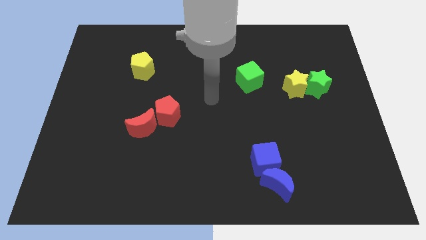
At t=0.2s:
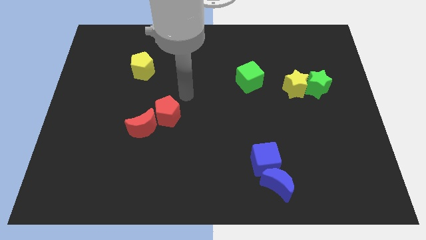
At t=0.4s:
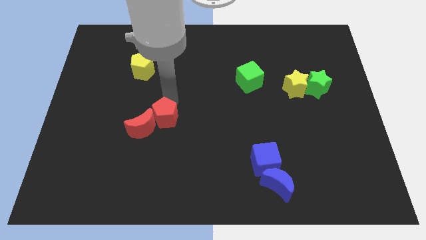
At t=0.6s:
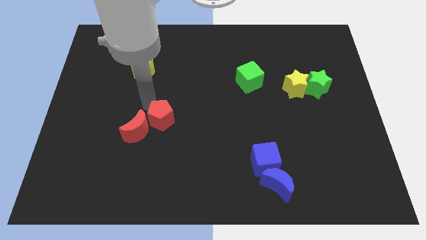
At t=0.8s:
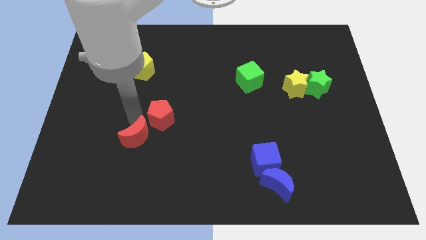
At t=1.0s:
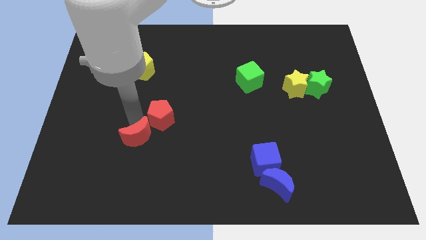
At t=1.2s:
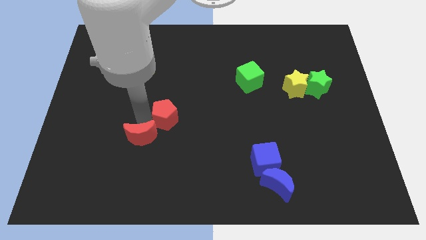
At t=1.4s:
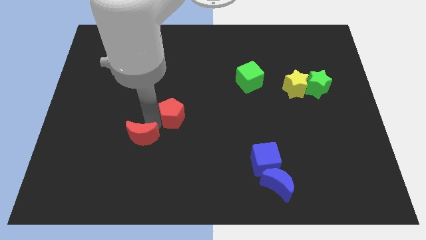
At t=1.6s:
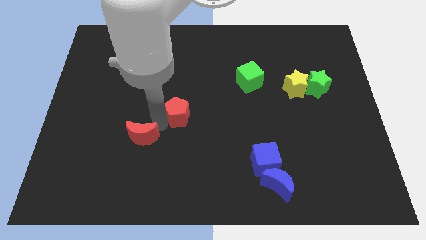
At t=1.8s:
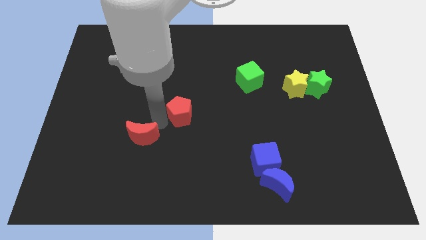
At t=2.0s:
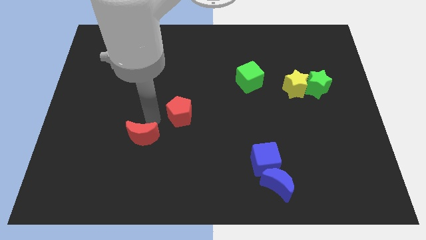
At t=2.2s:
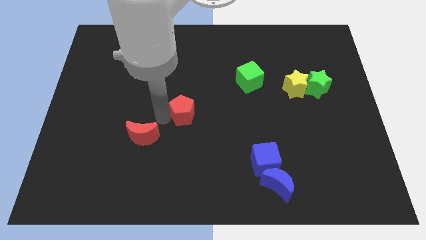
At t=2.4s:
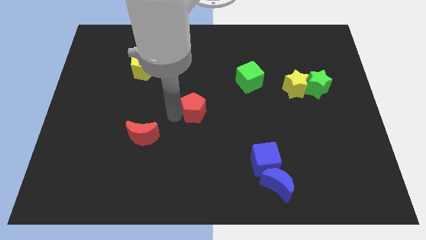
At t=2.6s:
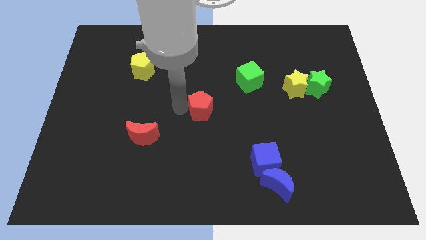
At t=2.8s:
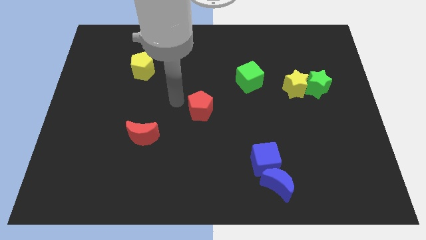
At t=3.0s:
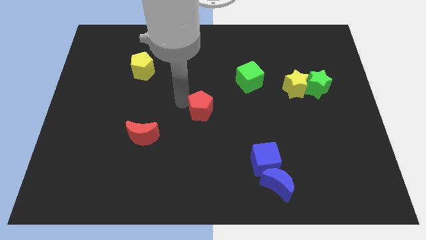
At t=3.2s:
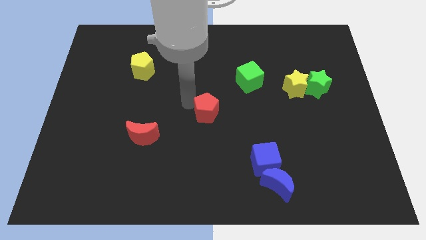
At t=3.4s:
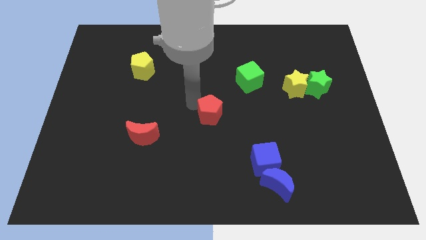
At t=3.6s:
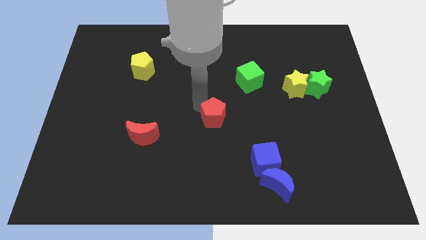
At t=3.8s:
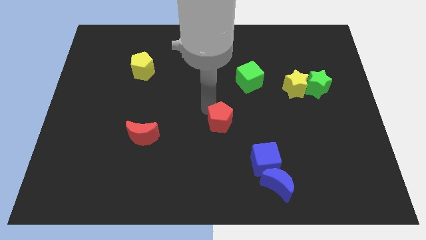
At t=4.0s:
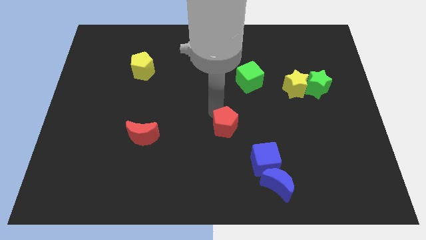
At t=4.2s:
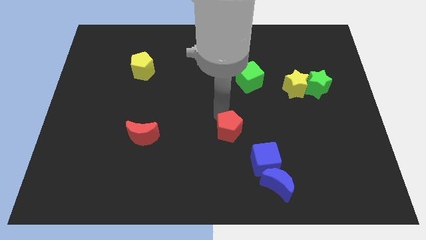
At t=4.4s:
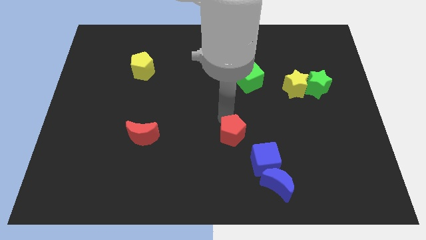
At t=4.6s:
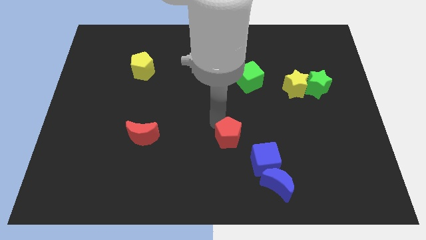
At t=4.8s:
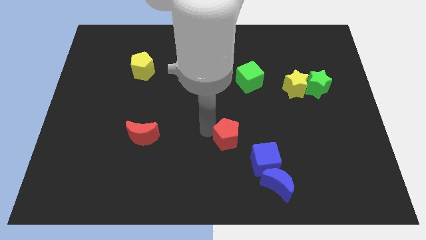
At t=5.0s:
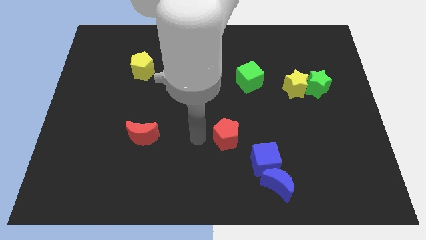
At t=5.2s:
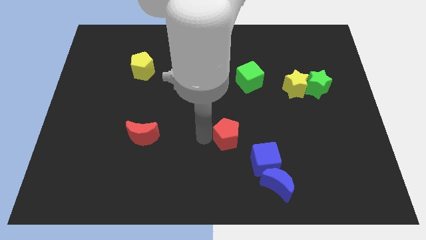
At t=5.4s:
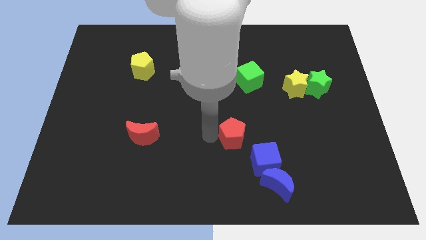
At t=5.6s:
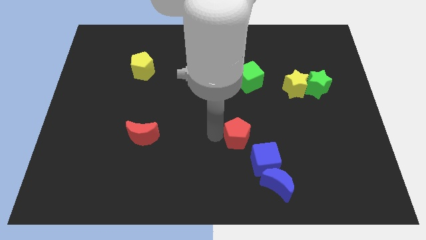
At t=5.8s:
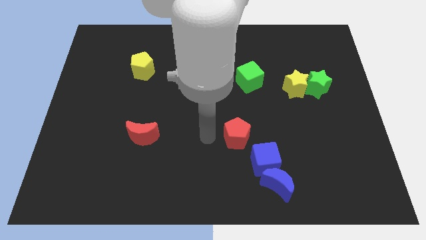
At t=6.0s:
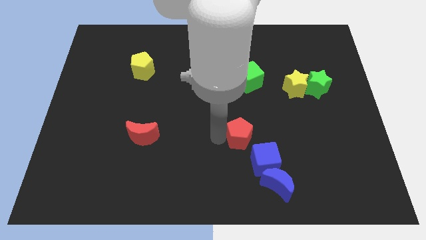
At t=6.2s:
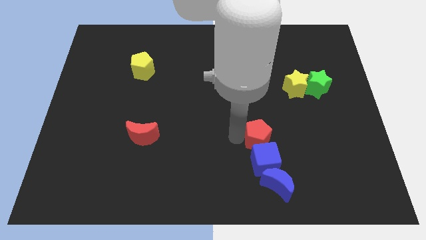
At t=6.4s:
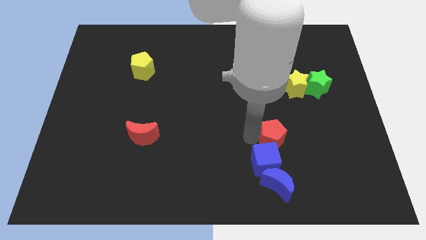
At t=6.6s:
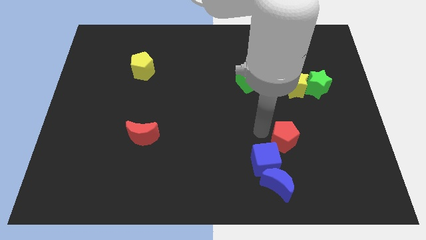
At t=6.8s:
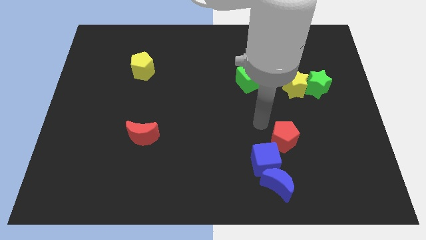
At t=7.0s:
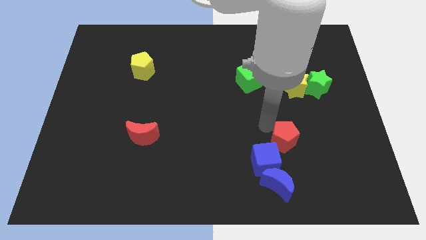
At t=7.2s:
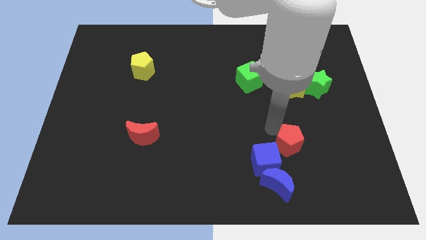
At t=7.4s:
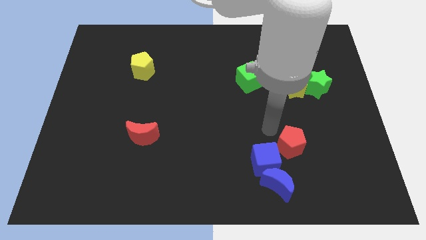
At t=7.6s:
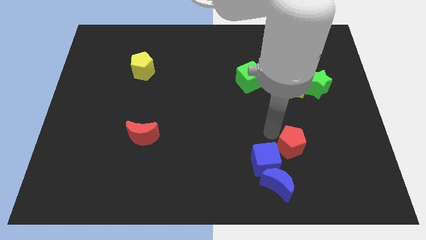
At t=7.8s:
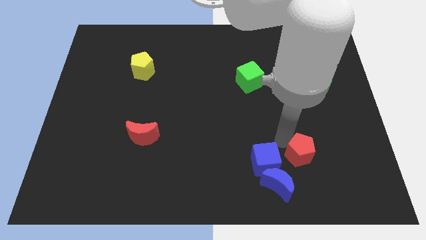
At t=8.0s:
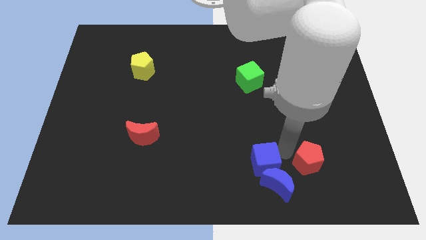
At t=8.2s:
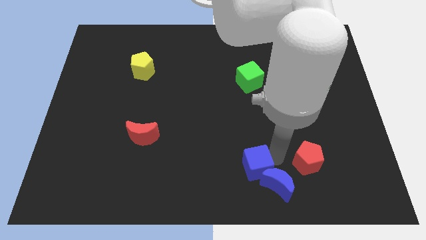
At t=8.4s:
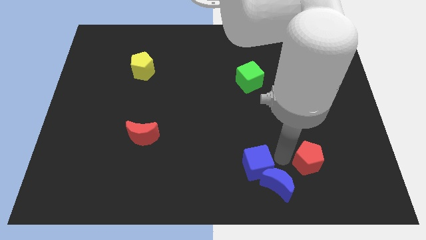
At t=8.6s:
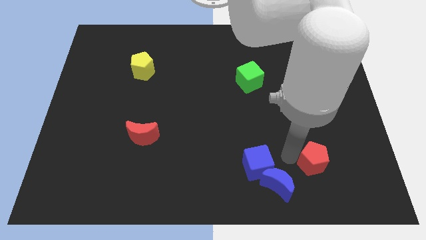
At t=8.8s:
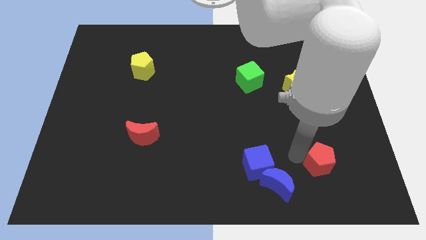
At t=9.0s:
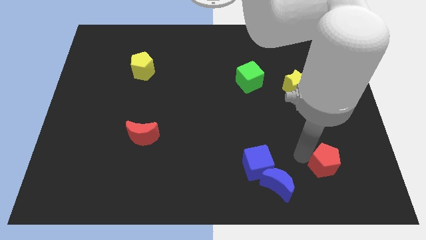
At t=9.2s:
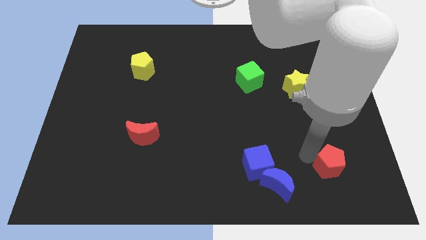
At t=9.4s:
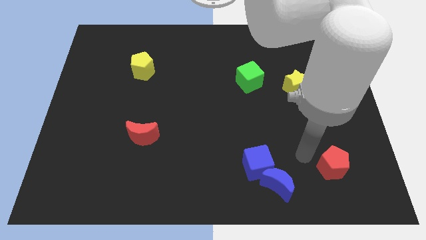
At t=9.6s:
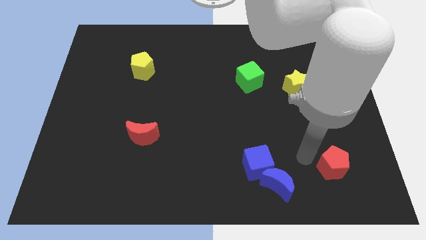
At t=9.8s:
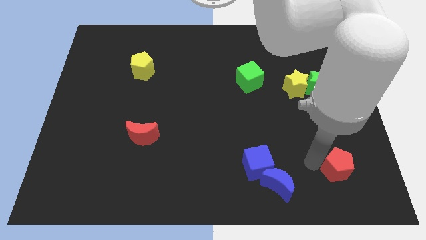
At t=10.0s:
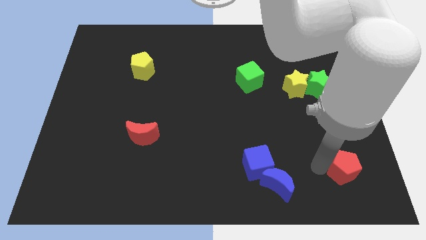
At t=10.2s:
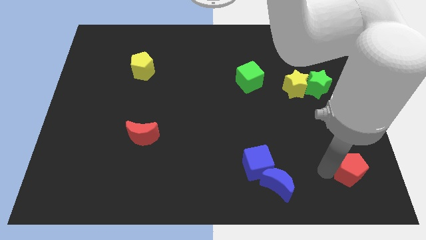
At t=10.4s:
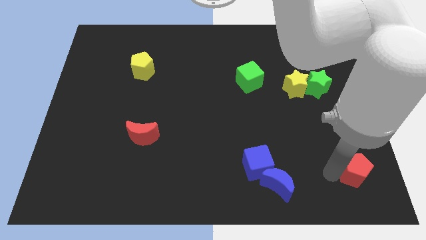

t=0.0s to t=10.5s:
push the red pentagon to the bottom right of the board

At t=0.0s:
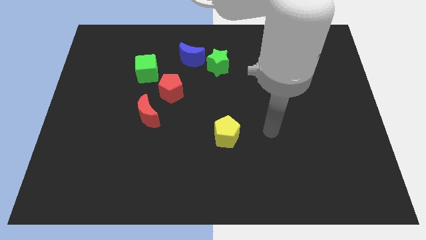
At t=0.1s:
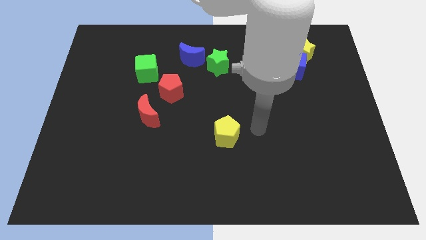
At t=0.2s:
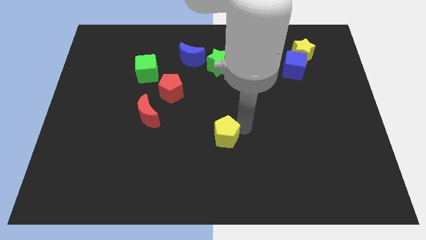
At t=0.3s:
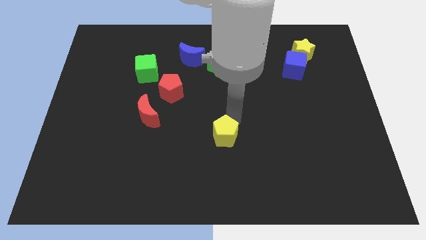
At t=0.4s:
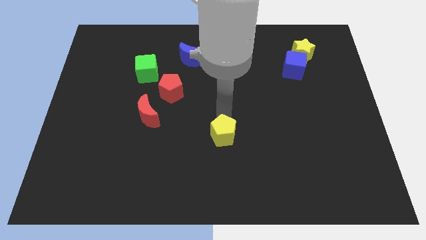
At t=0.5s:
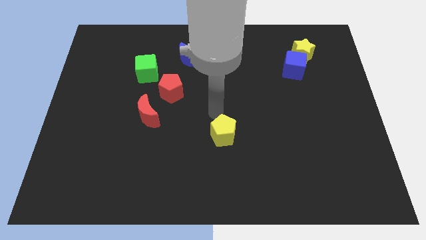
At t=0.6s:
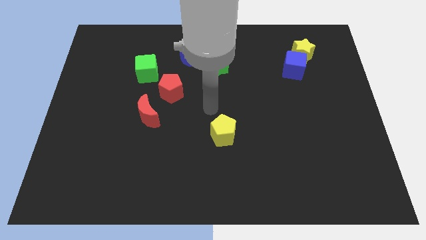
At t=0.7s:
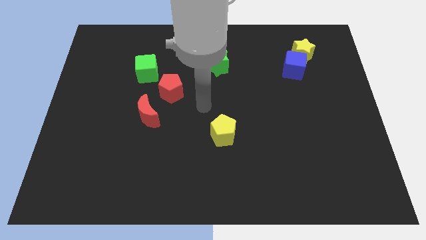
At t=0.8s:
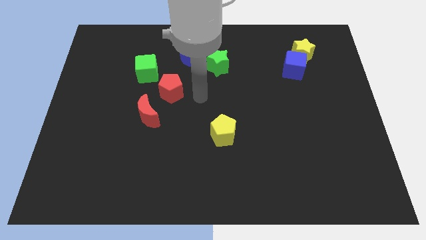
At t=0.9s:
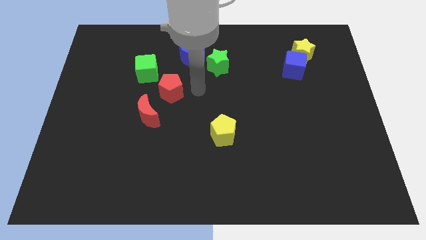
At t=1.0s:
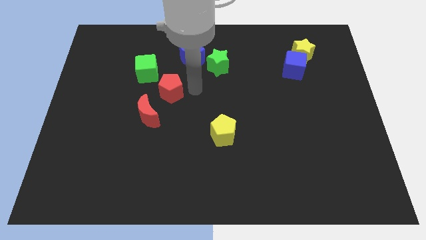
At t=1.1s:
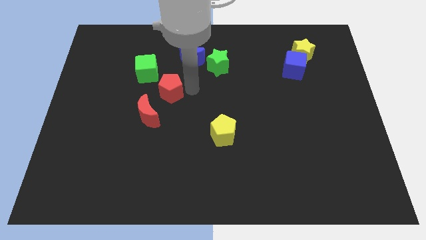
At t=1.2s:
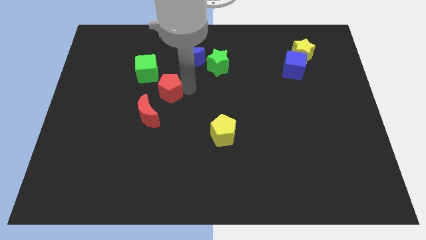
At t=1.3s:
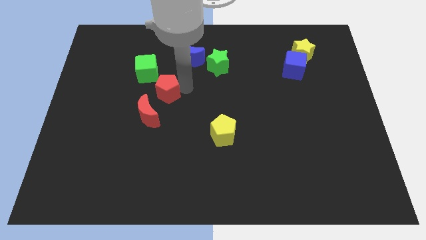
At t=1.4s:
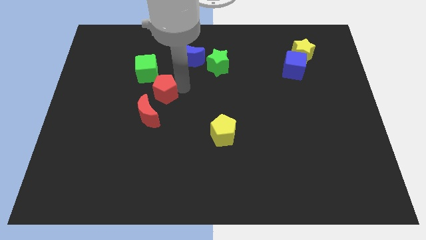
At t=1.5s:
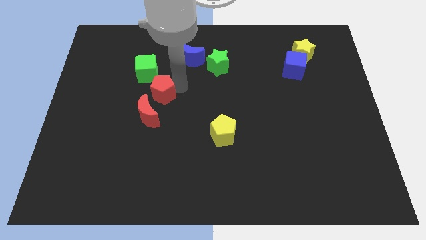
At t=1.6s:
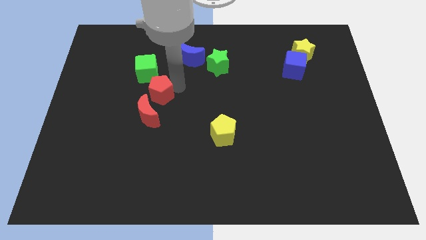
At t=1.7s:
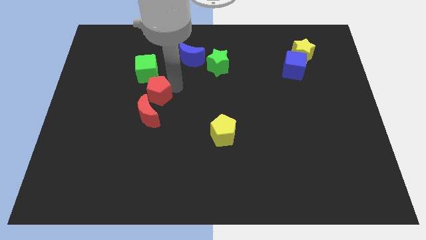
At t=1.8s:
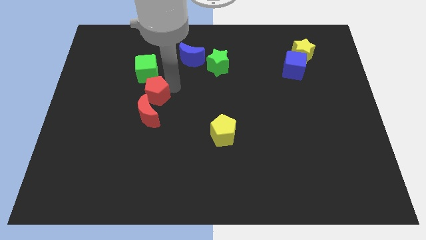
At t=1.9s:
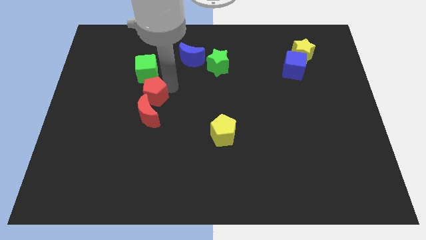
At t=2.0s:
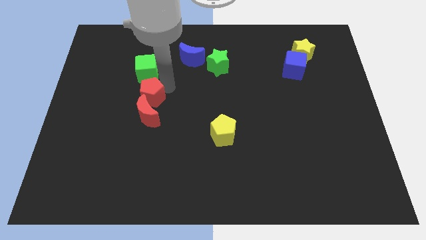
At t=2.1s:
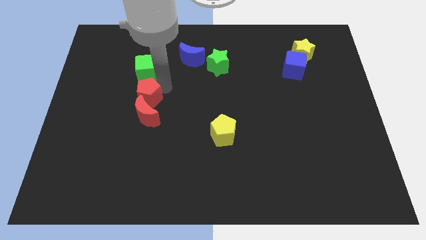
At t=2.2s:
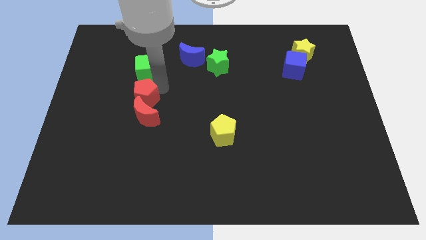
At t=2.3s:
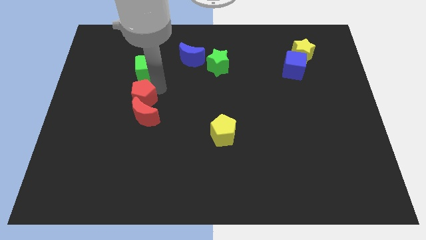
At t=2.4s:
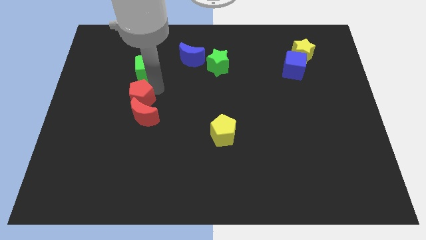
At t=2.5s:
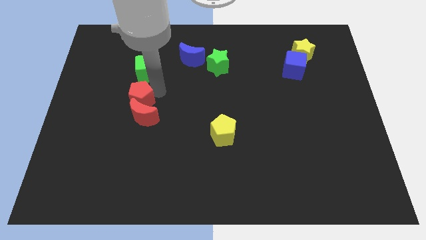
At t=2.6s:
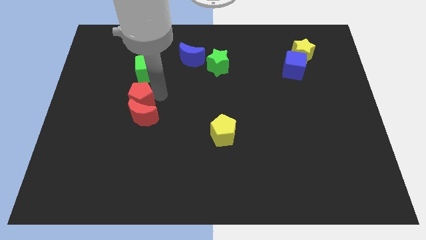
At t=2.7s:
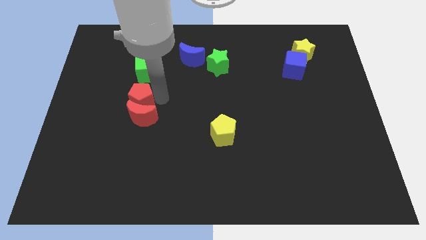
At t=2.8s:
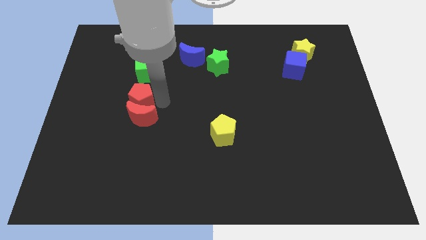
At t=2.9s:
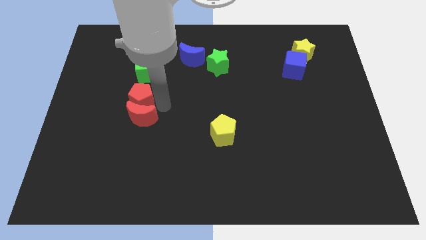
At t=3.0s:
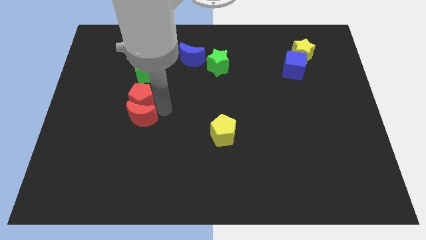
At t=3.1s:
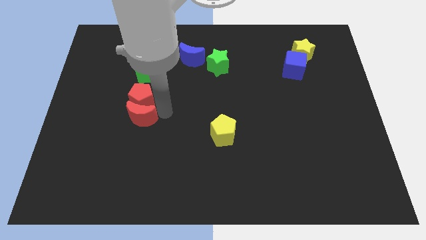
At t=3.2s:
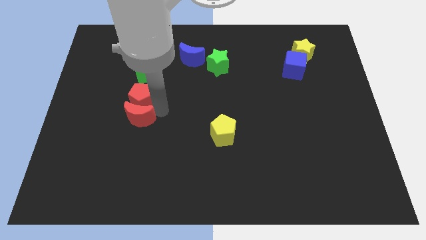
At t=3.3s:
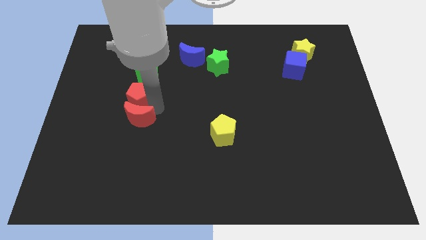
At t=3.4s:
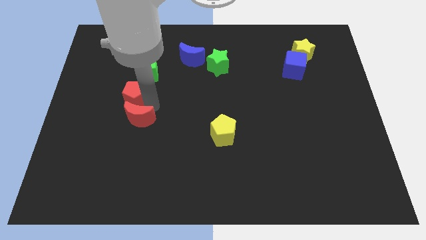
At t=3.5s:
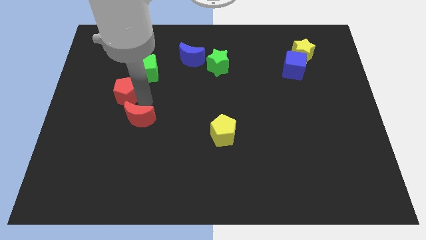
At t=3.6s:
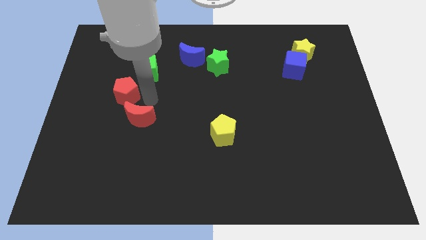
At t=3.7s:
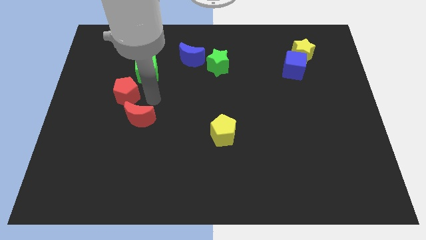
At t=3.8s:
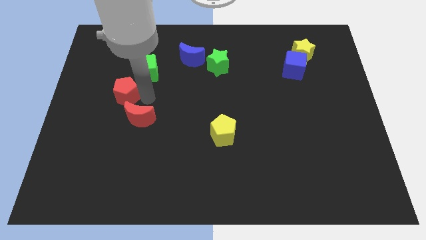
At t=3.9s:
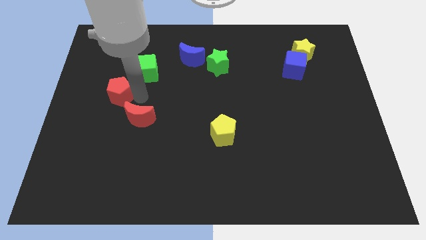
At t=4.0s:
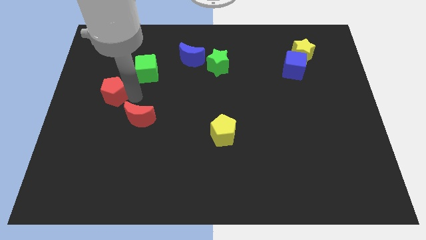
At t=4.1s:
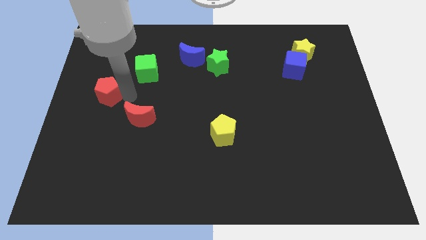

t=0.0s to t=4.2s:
slide the red pentagon to the center left
